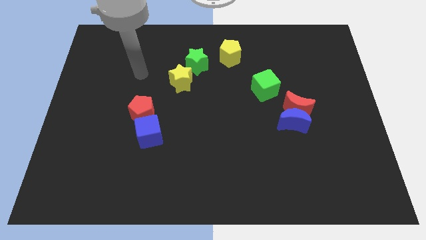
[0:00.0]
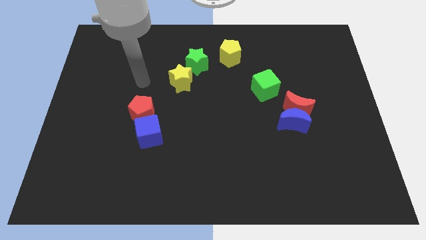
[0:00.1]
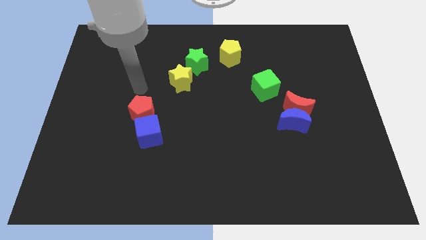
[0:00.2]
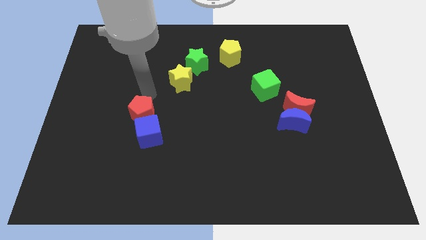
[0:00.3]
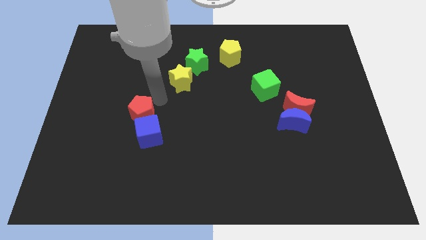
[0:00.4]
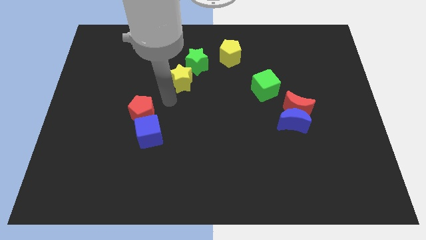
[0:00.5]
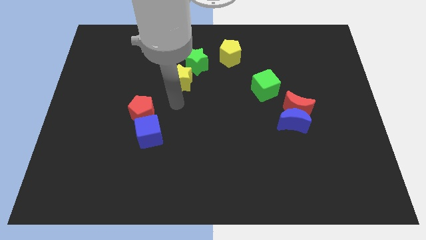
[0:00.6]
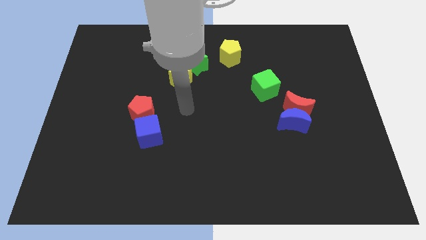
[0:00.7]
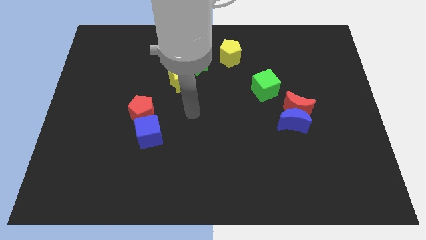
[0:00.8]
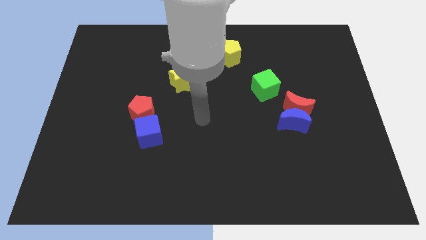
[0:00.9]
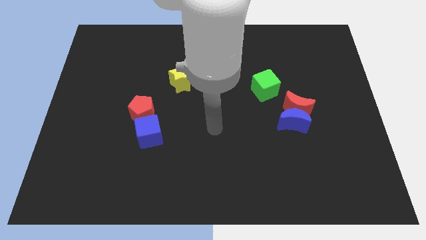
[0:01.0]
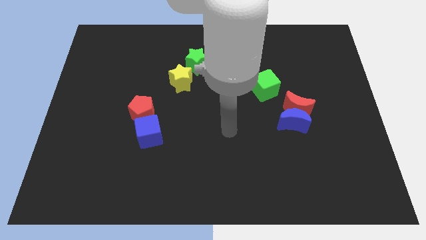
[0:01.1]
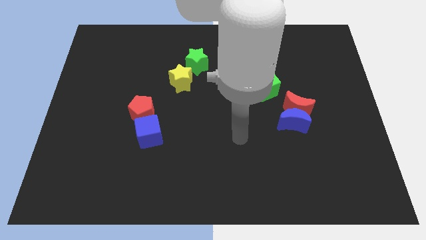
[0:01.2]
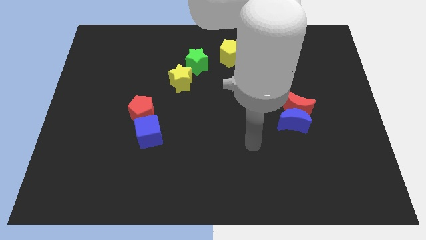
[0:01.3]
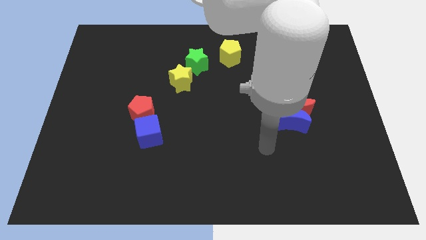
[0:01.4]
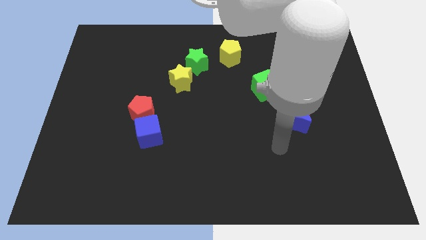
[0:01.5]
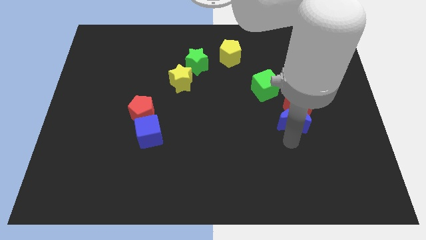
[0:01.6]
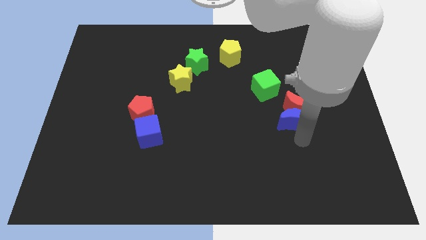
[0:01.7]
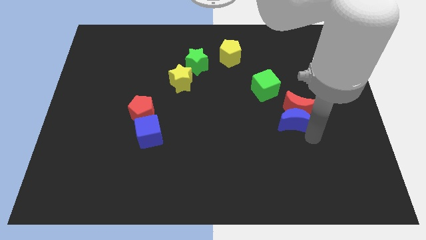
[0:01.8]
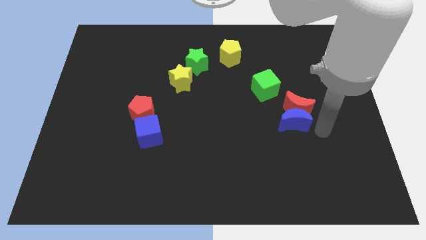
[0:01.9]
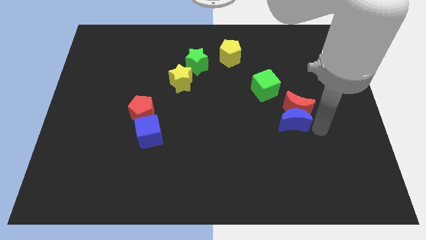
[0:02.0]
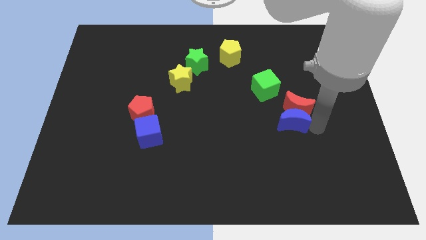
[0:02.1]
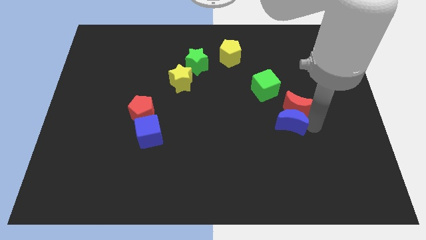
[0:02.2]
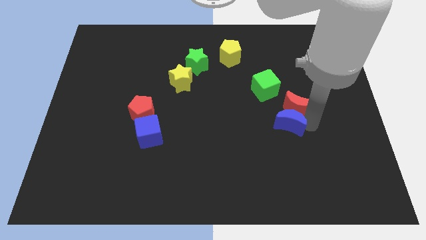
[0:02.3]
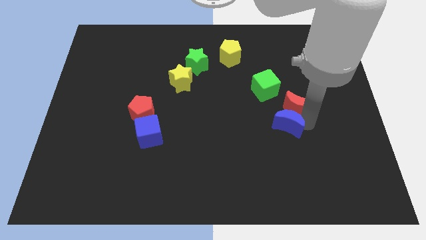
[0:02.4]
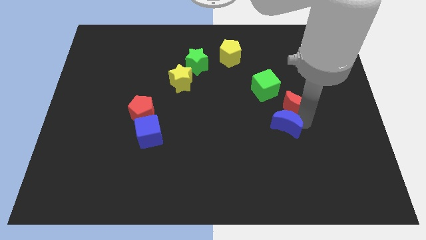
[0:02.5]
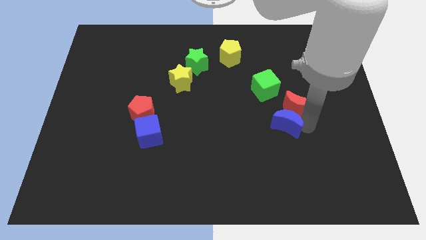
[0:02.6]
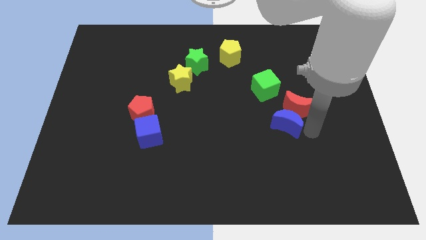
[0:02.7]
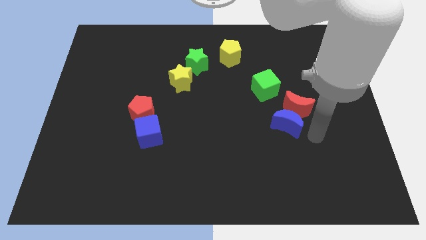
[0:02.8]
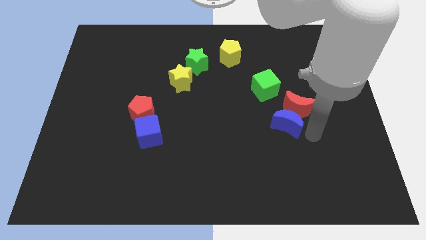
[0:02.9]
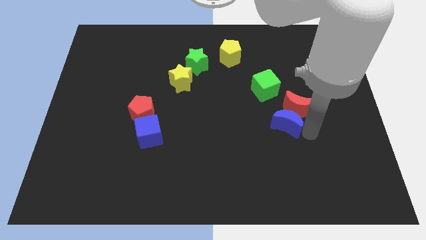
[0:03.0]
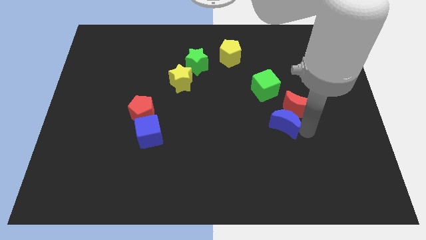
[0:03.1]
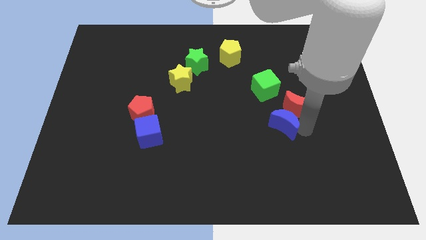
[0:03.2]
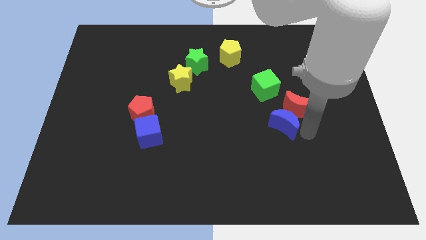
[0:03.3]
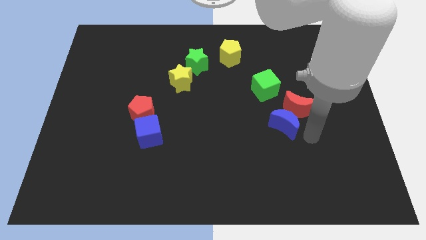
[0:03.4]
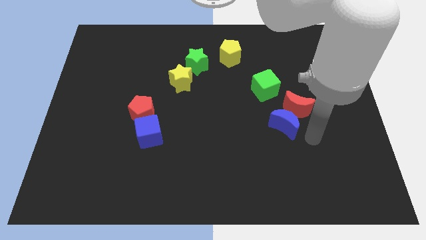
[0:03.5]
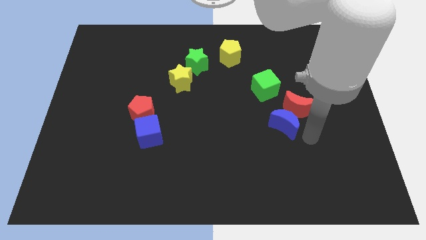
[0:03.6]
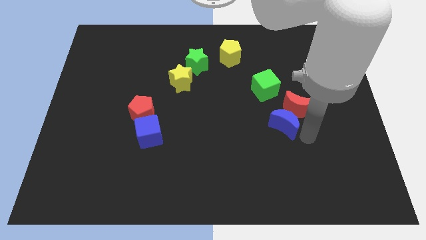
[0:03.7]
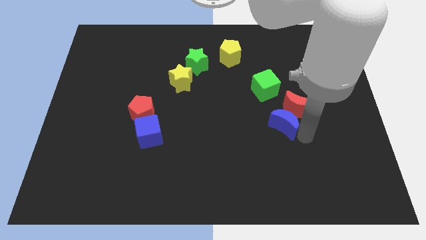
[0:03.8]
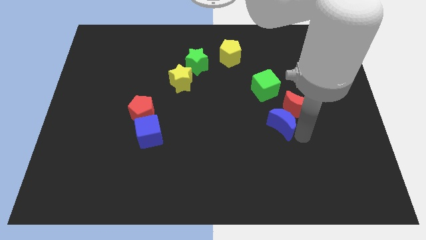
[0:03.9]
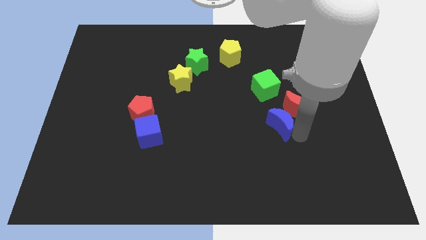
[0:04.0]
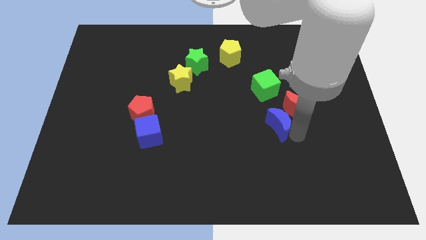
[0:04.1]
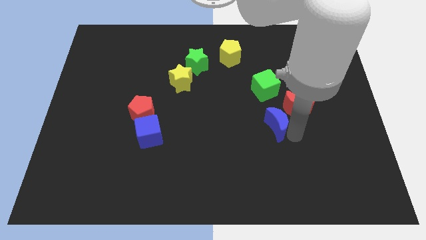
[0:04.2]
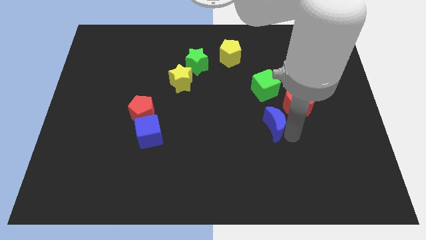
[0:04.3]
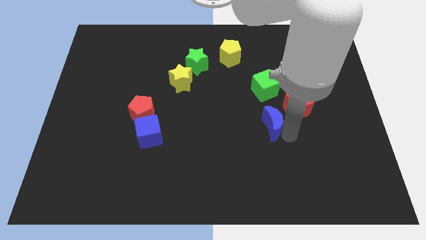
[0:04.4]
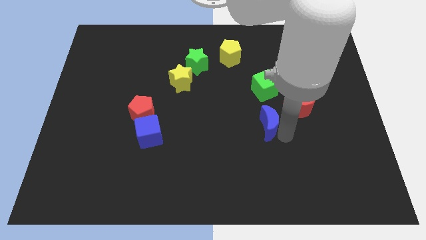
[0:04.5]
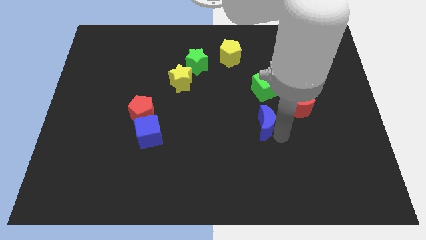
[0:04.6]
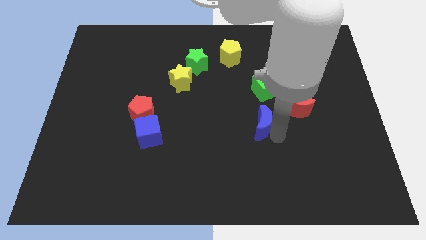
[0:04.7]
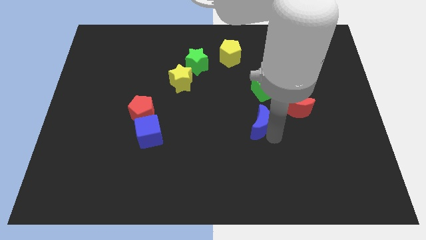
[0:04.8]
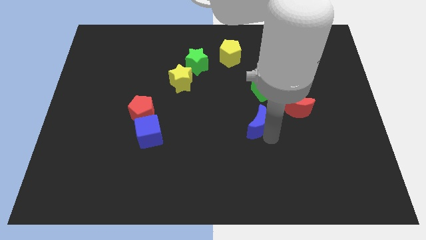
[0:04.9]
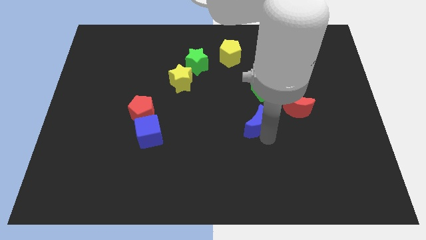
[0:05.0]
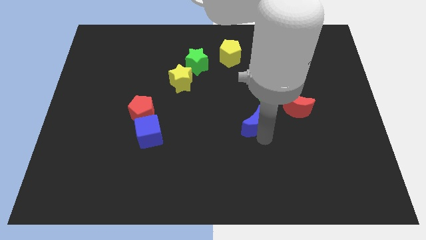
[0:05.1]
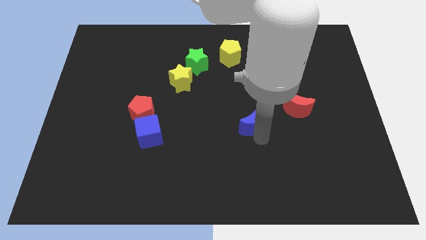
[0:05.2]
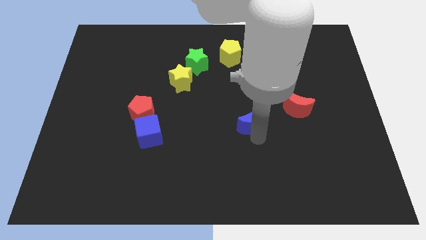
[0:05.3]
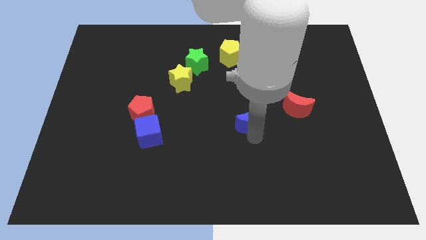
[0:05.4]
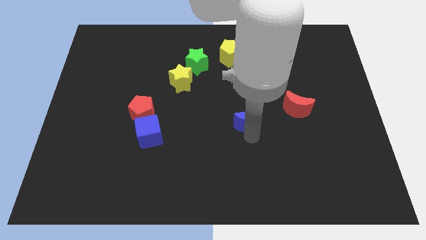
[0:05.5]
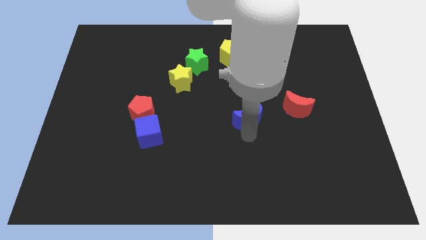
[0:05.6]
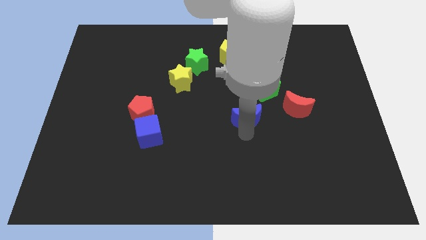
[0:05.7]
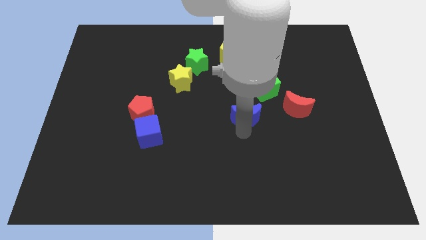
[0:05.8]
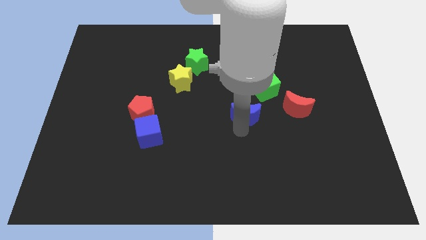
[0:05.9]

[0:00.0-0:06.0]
move the blue moon a bit up and to the left

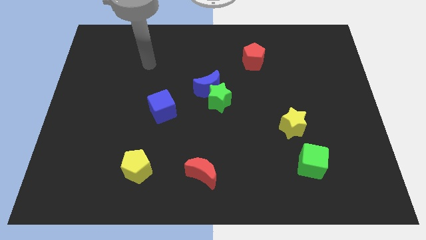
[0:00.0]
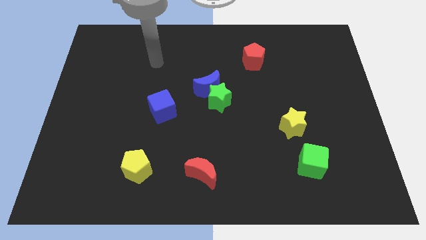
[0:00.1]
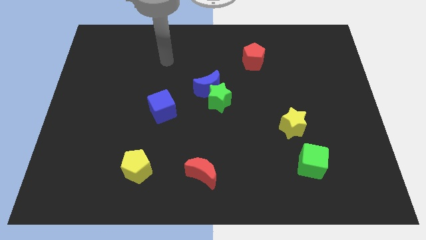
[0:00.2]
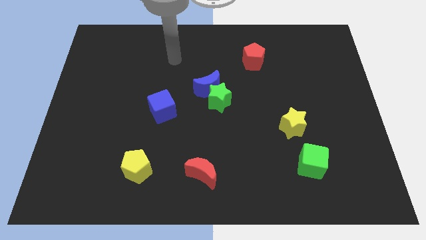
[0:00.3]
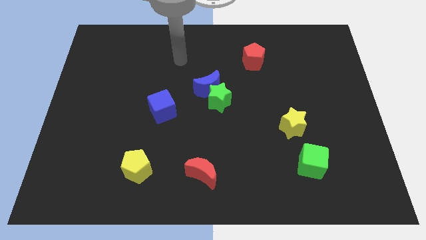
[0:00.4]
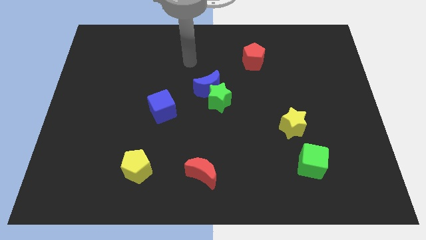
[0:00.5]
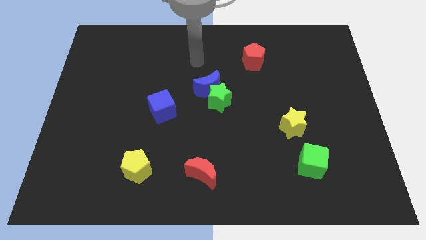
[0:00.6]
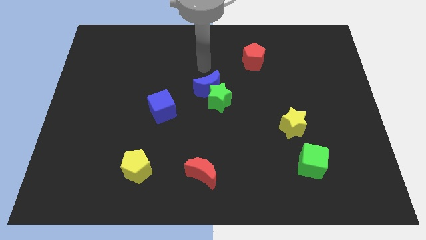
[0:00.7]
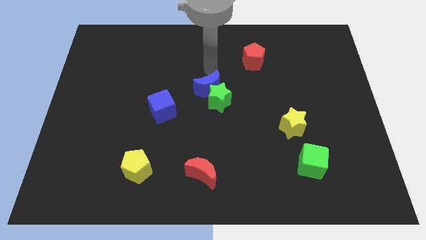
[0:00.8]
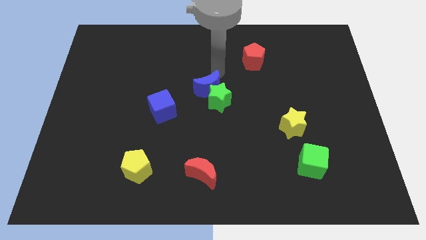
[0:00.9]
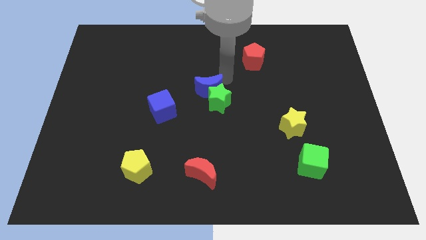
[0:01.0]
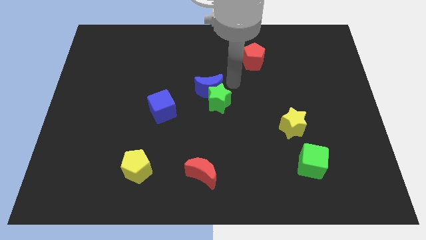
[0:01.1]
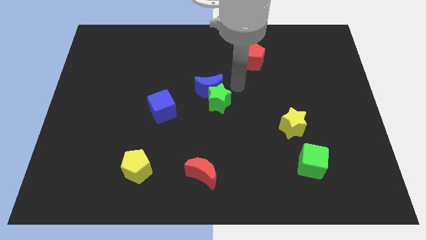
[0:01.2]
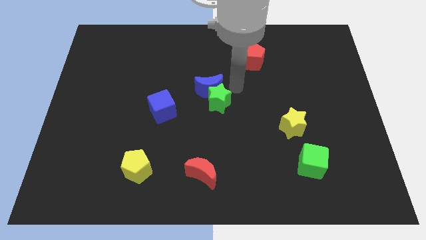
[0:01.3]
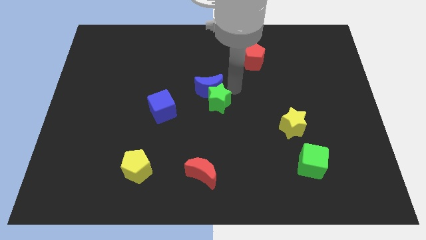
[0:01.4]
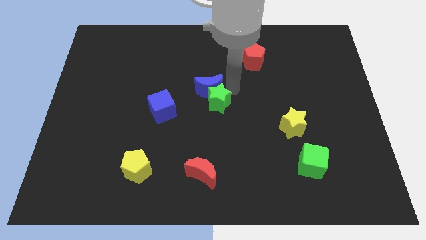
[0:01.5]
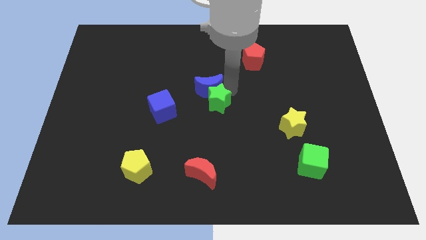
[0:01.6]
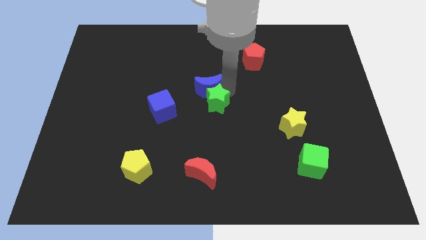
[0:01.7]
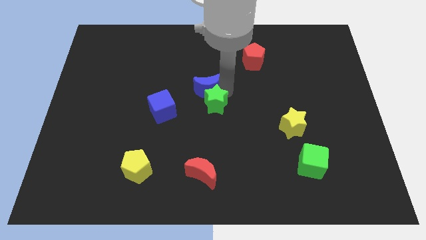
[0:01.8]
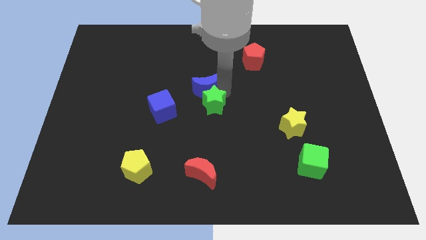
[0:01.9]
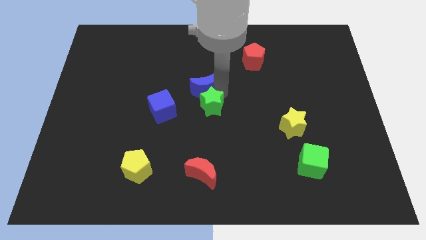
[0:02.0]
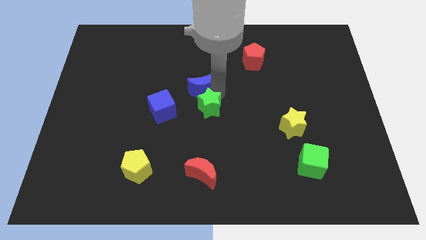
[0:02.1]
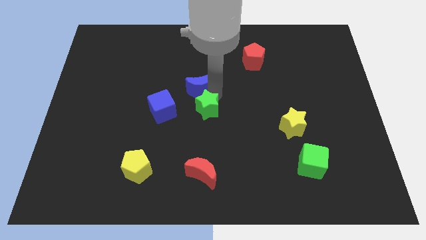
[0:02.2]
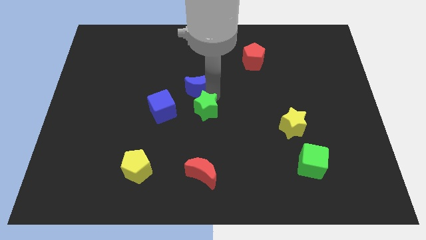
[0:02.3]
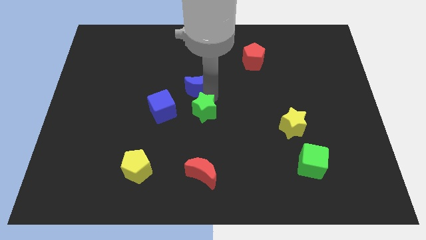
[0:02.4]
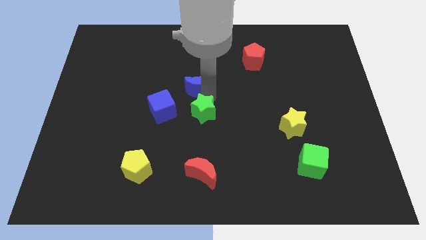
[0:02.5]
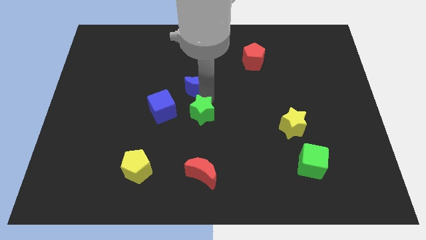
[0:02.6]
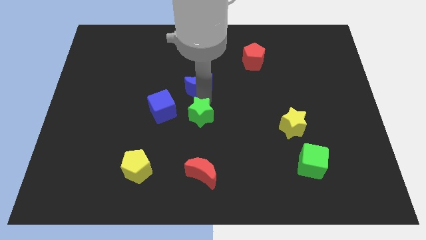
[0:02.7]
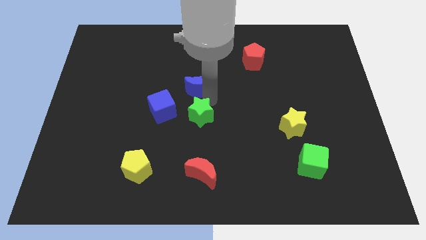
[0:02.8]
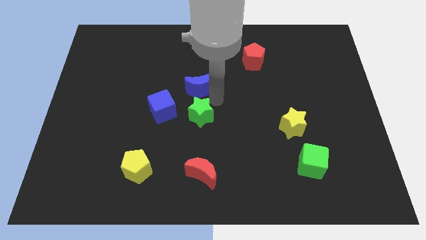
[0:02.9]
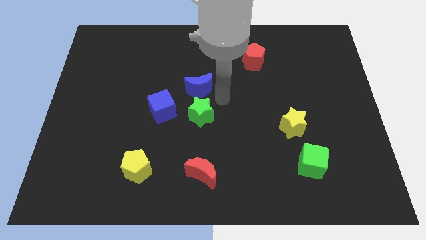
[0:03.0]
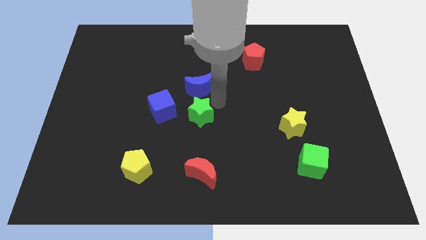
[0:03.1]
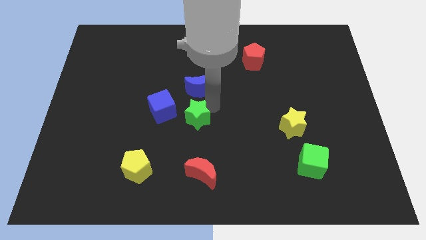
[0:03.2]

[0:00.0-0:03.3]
slightly push the green star downwards and left diagonally
